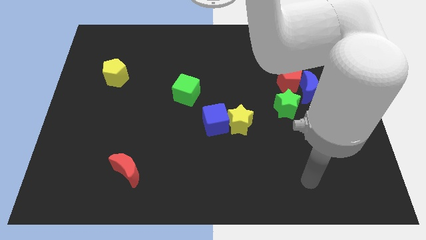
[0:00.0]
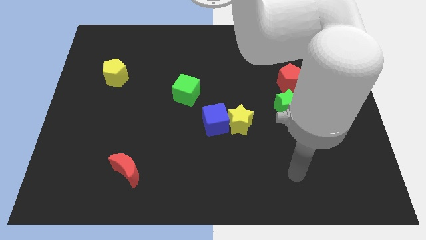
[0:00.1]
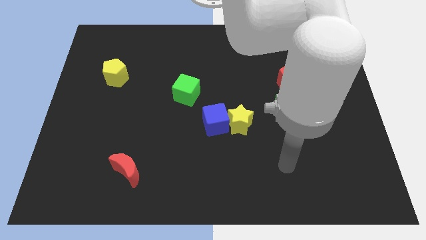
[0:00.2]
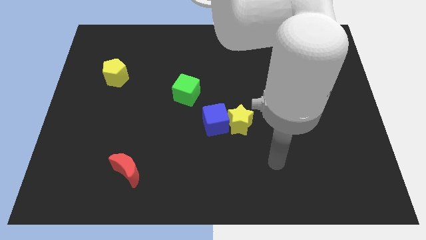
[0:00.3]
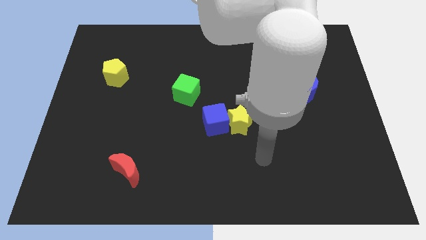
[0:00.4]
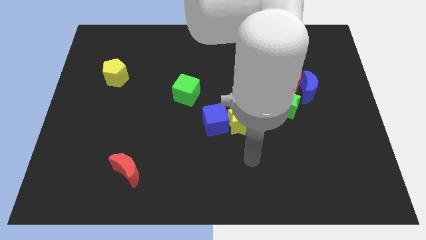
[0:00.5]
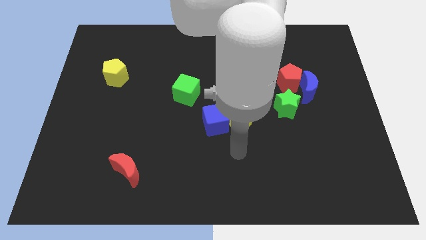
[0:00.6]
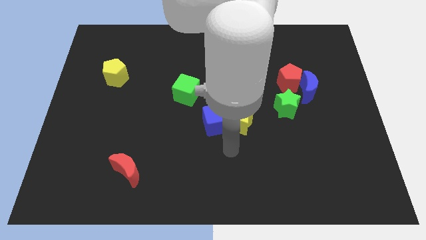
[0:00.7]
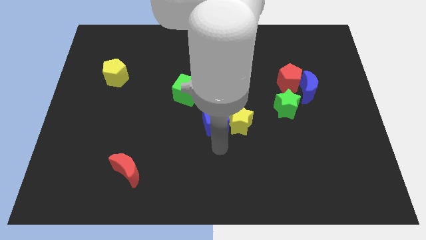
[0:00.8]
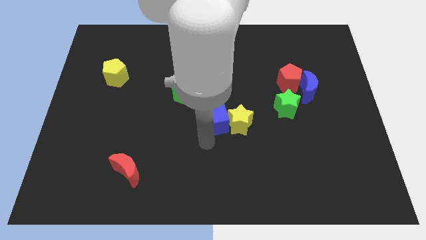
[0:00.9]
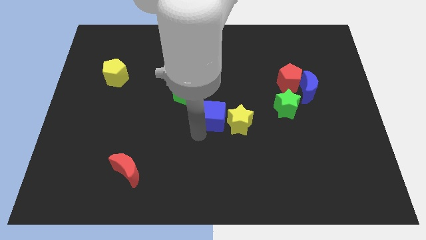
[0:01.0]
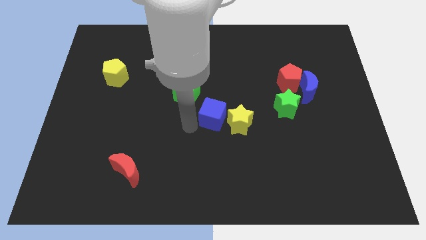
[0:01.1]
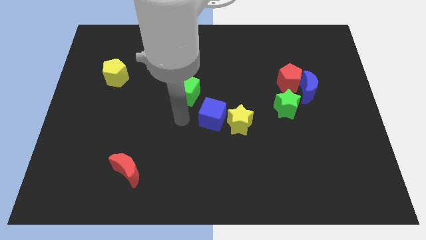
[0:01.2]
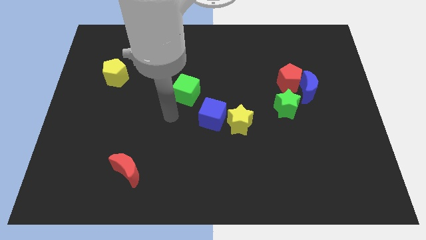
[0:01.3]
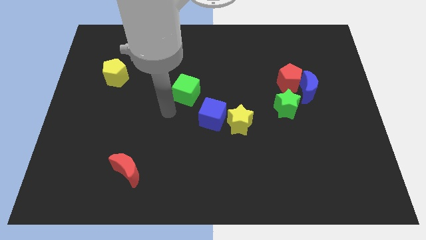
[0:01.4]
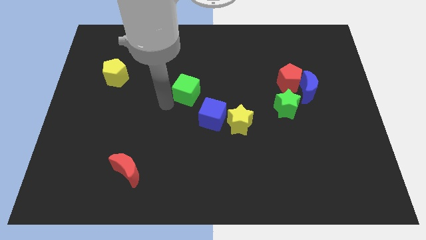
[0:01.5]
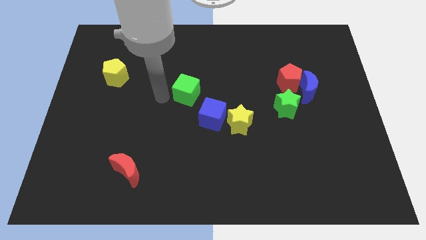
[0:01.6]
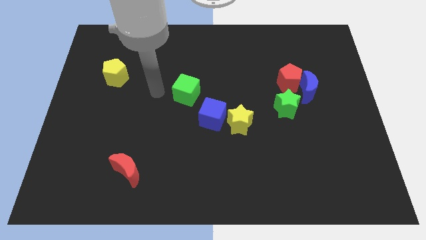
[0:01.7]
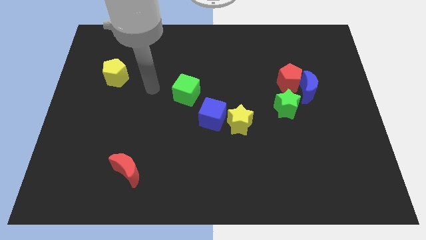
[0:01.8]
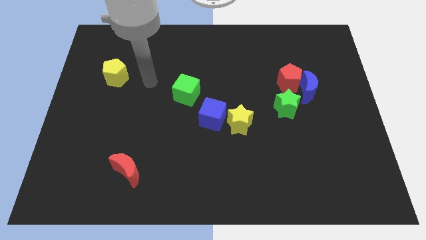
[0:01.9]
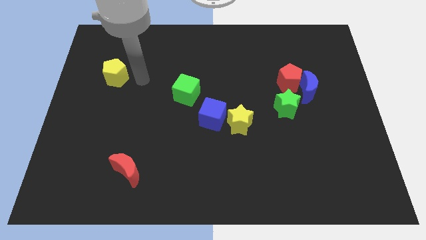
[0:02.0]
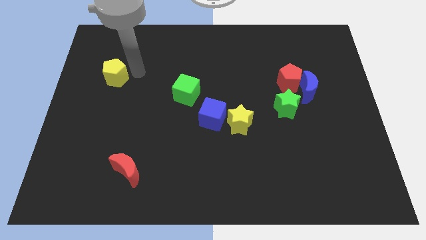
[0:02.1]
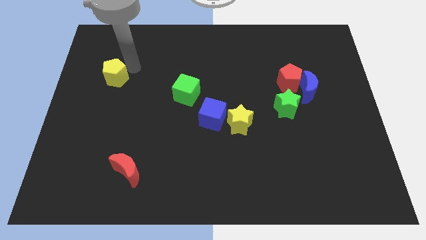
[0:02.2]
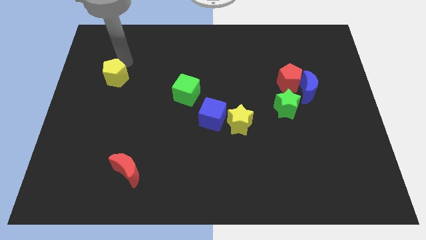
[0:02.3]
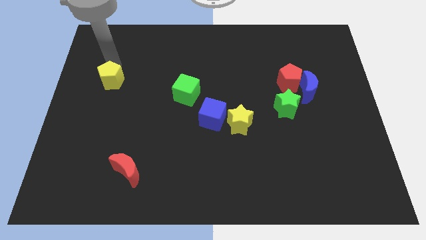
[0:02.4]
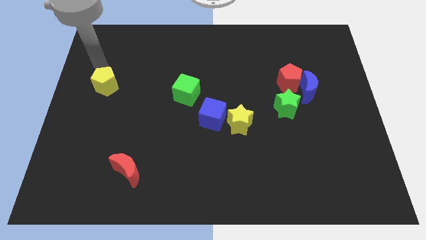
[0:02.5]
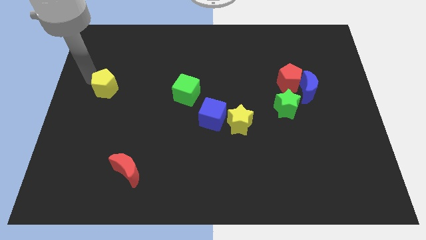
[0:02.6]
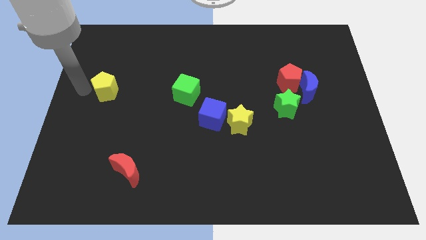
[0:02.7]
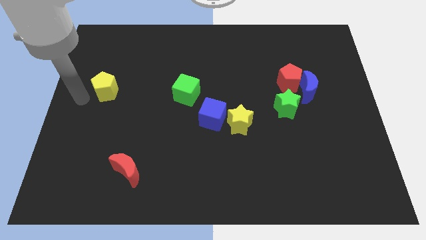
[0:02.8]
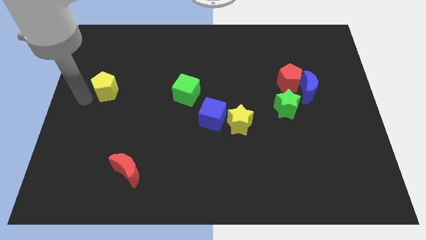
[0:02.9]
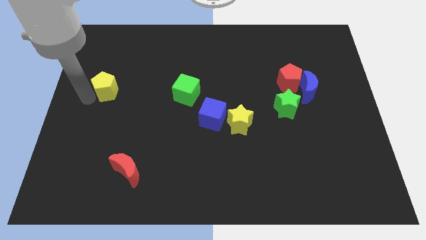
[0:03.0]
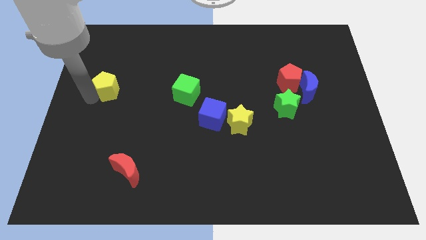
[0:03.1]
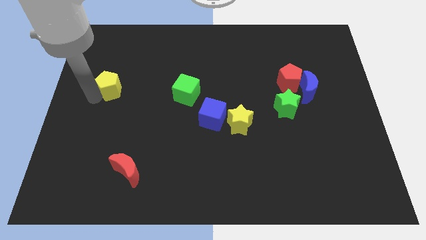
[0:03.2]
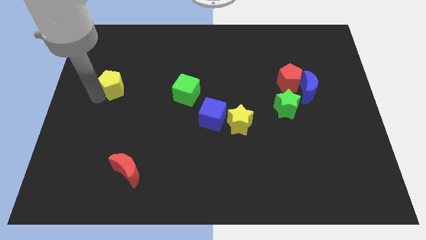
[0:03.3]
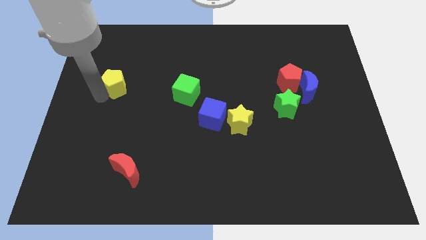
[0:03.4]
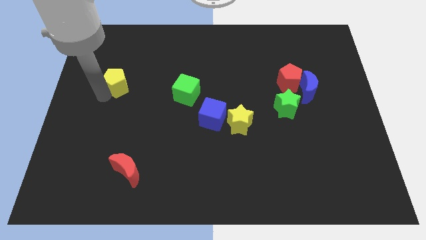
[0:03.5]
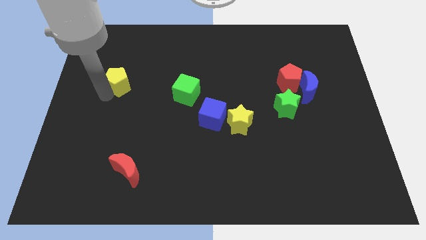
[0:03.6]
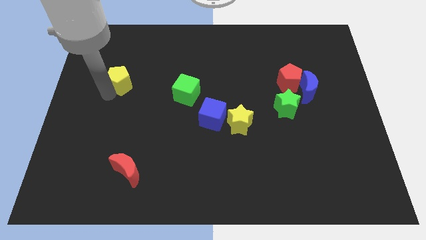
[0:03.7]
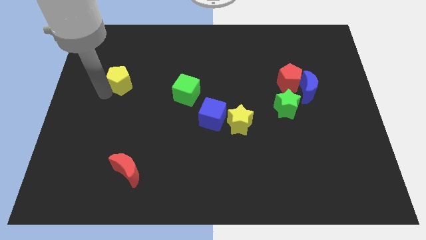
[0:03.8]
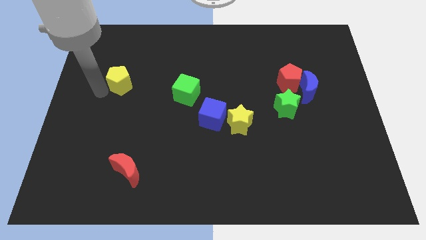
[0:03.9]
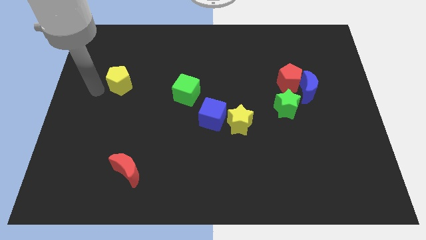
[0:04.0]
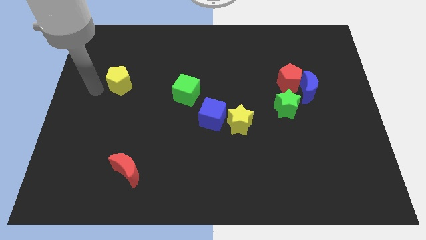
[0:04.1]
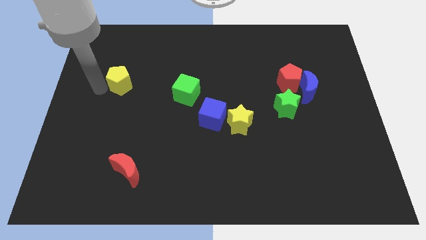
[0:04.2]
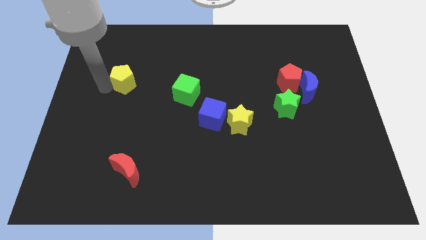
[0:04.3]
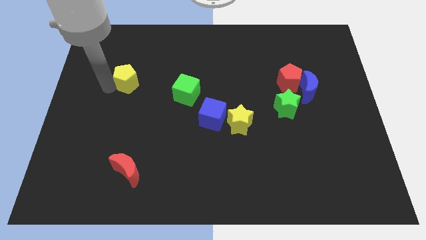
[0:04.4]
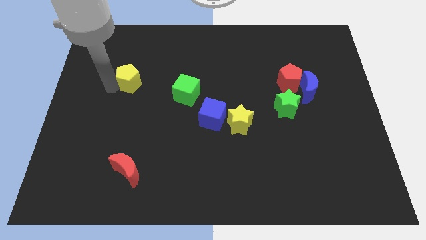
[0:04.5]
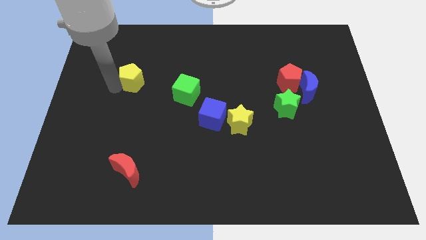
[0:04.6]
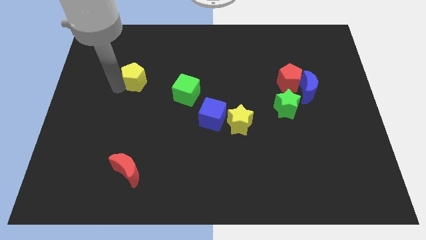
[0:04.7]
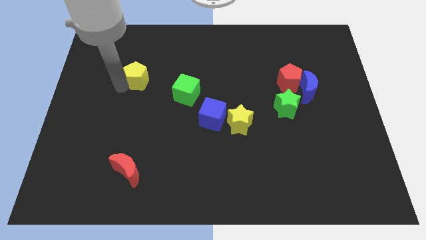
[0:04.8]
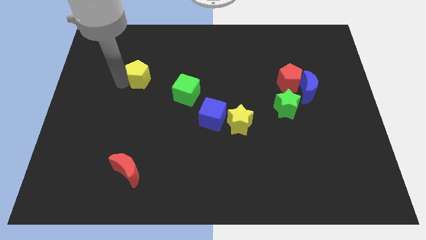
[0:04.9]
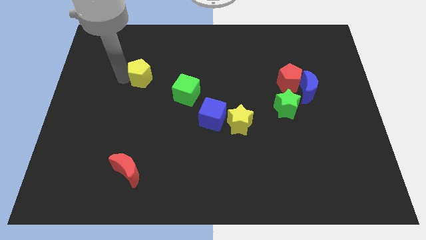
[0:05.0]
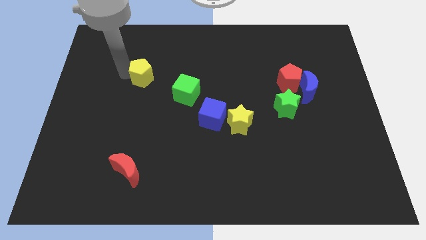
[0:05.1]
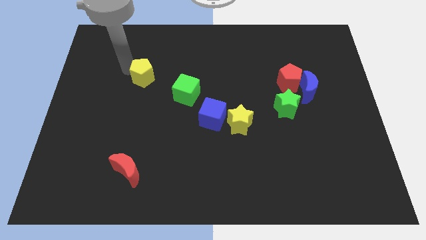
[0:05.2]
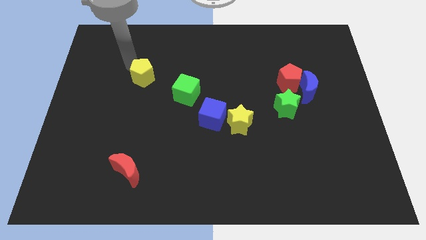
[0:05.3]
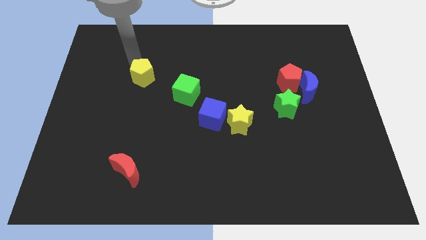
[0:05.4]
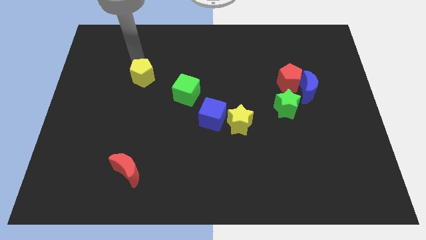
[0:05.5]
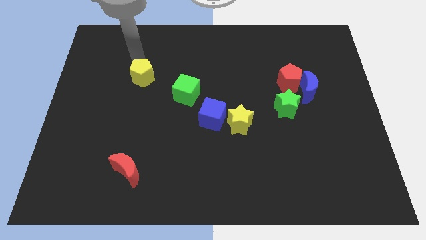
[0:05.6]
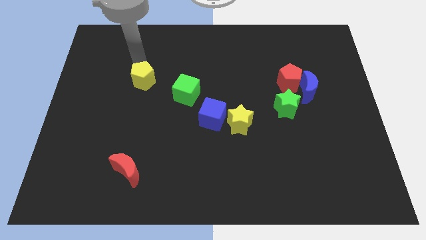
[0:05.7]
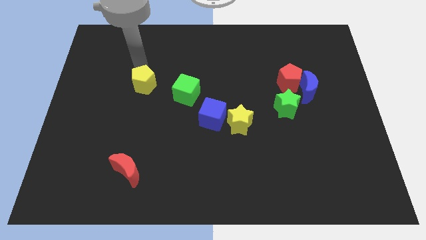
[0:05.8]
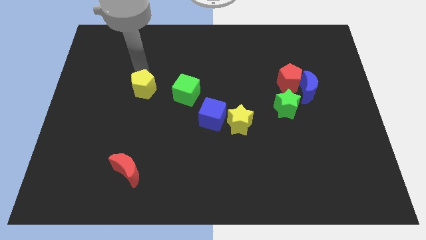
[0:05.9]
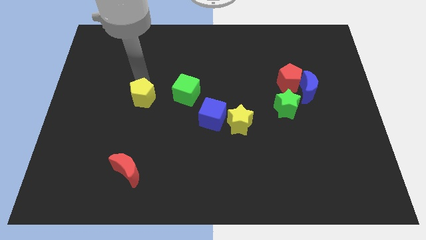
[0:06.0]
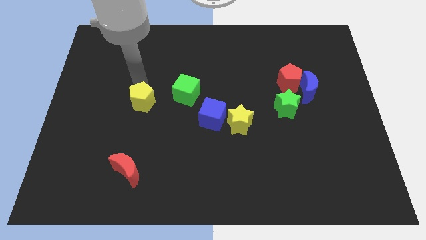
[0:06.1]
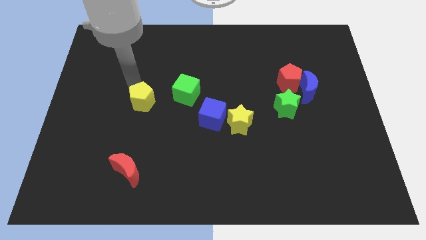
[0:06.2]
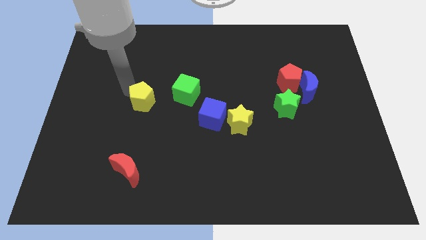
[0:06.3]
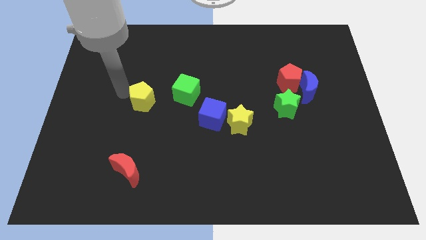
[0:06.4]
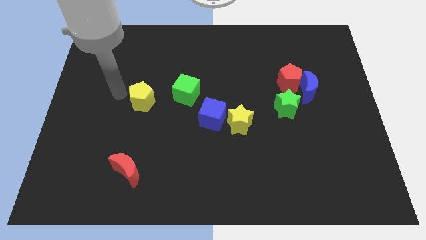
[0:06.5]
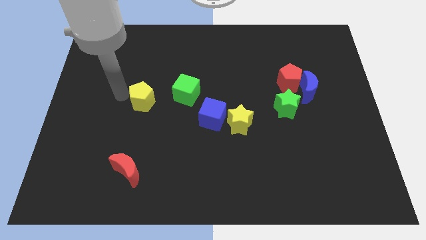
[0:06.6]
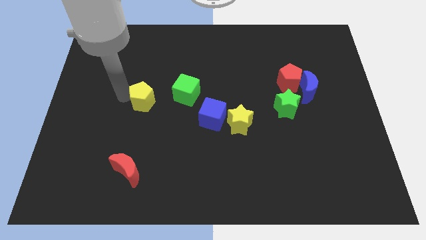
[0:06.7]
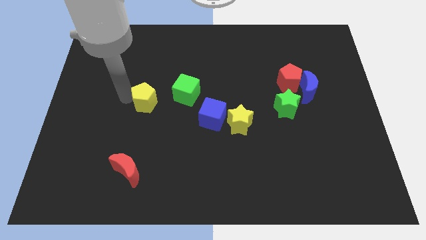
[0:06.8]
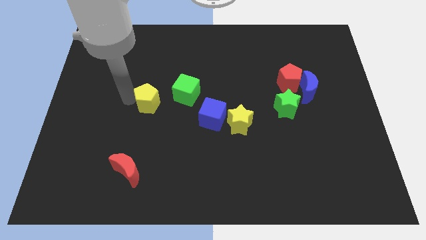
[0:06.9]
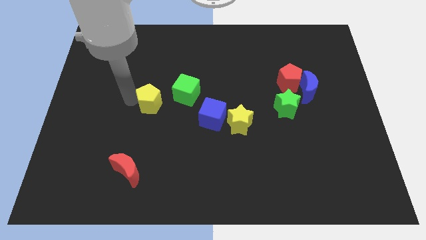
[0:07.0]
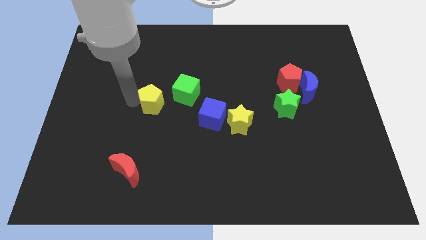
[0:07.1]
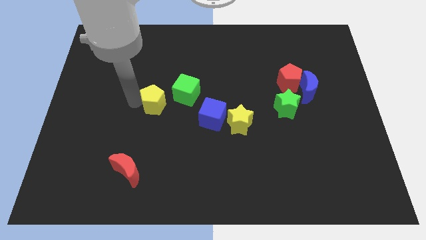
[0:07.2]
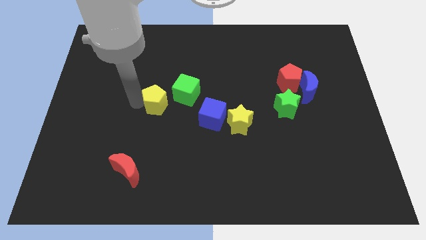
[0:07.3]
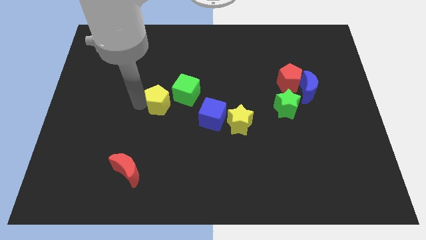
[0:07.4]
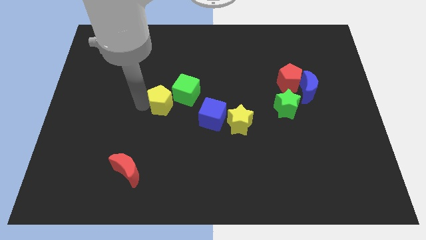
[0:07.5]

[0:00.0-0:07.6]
put the yellow pentagon to the center of the board
